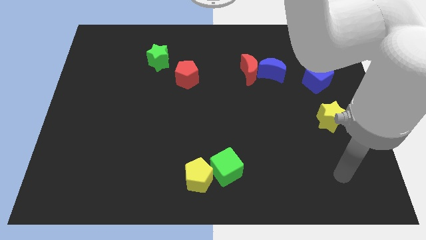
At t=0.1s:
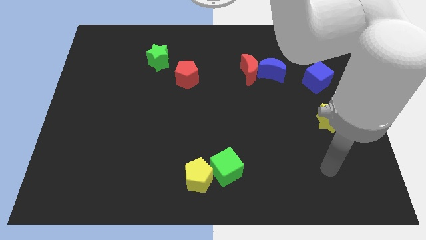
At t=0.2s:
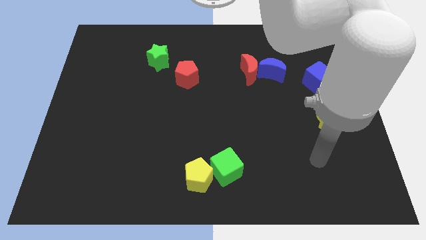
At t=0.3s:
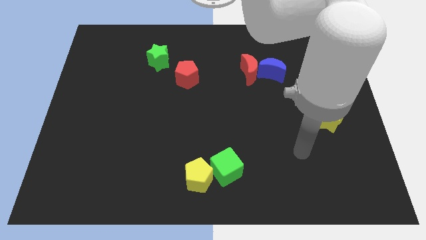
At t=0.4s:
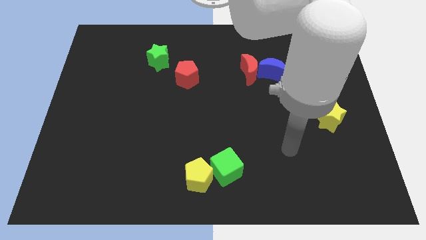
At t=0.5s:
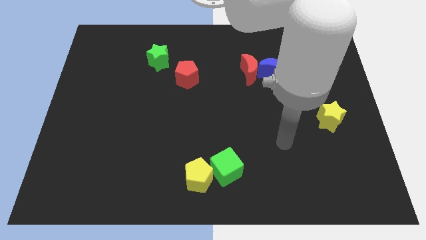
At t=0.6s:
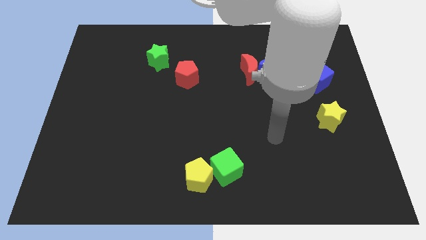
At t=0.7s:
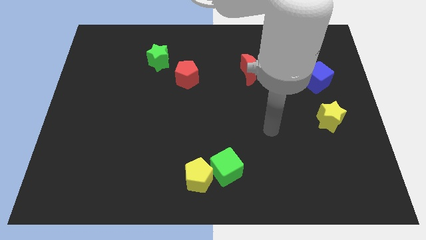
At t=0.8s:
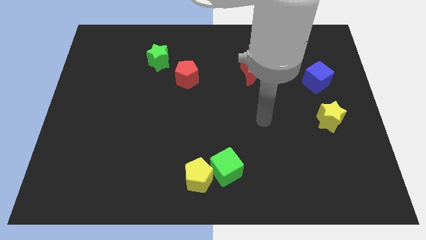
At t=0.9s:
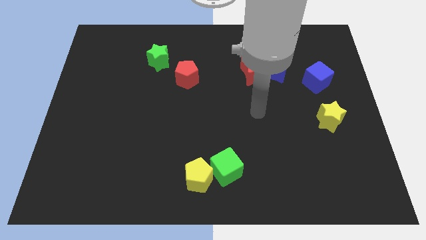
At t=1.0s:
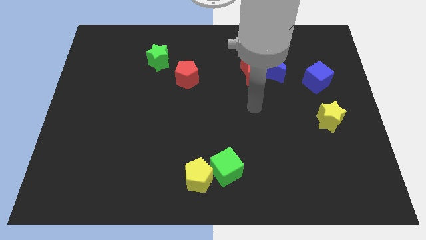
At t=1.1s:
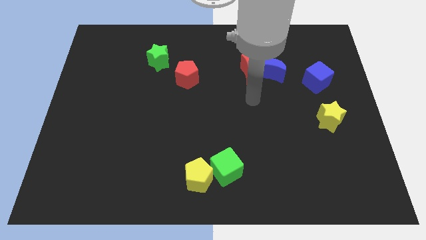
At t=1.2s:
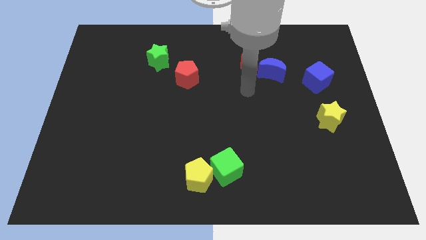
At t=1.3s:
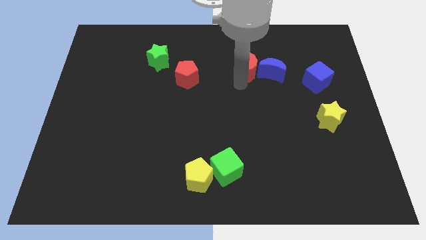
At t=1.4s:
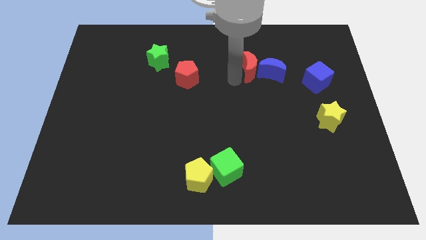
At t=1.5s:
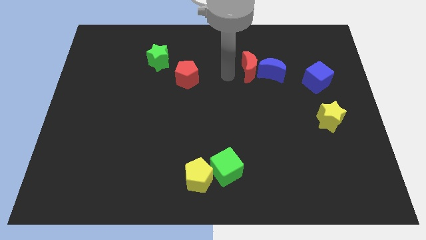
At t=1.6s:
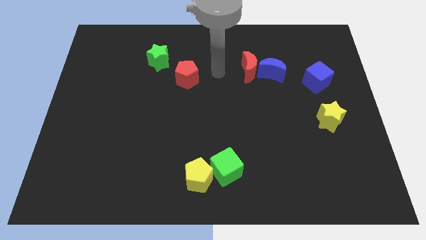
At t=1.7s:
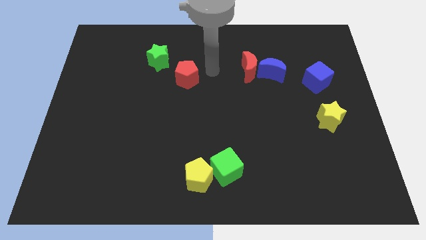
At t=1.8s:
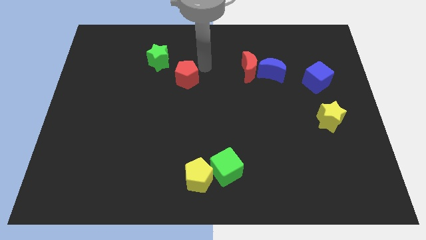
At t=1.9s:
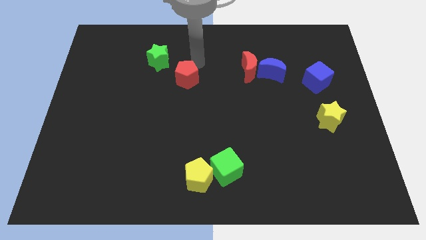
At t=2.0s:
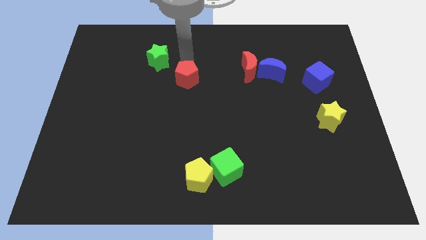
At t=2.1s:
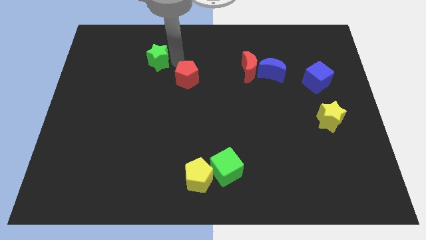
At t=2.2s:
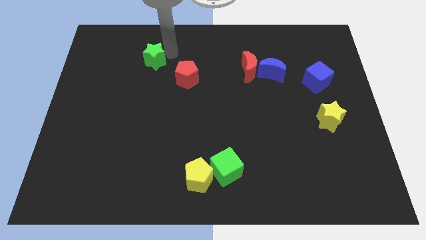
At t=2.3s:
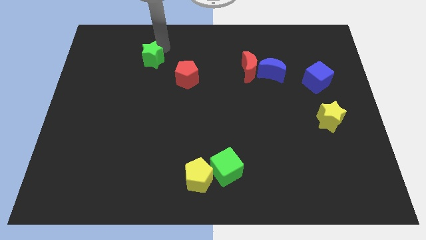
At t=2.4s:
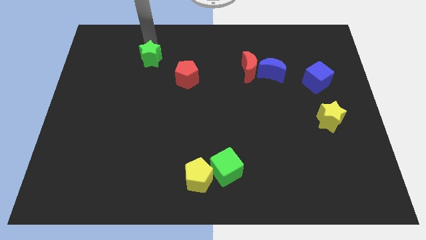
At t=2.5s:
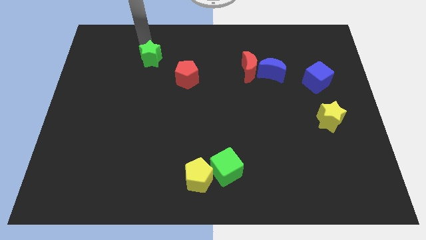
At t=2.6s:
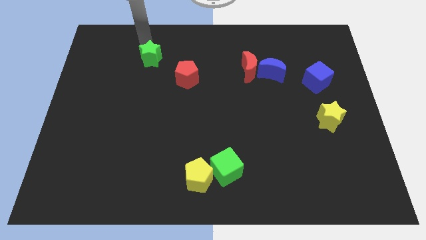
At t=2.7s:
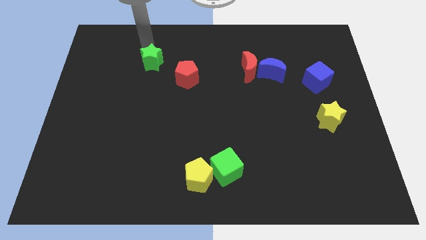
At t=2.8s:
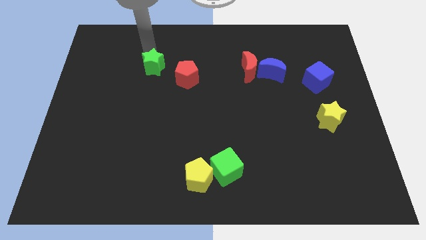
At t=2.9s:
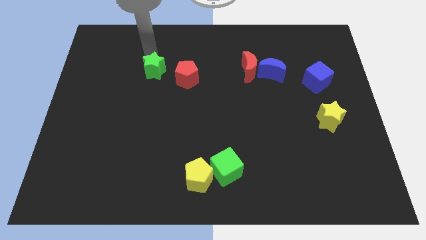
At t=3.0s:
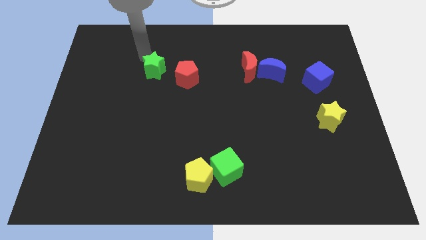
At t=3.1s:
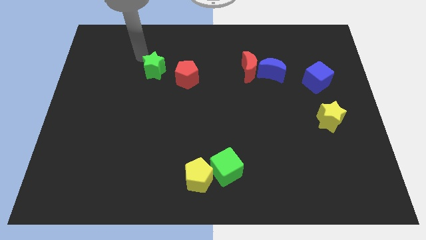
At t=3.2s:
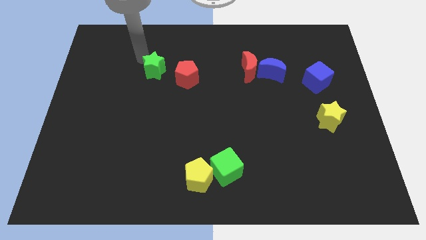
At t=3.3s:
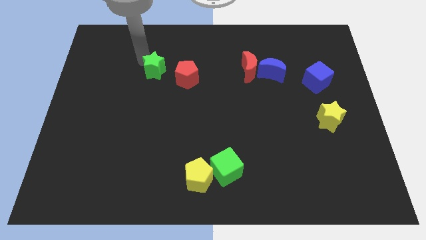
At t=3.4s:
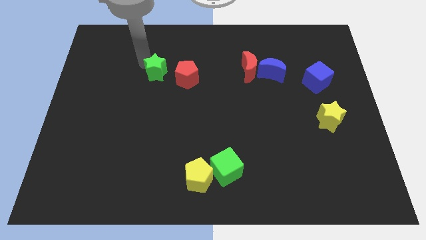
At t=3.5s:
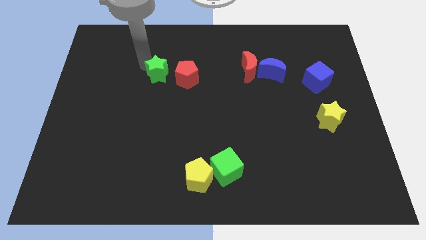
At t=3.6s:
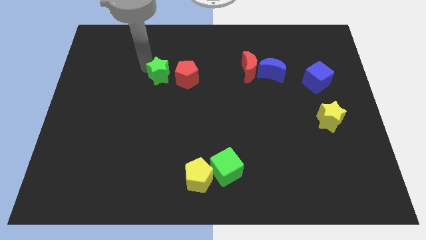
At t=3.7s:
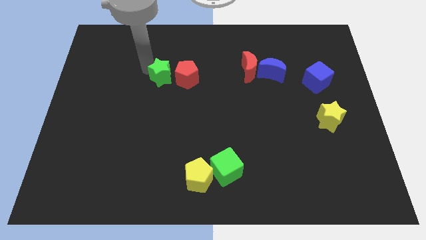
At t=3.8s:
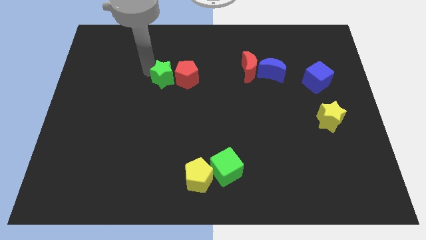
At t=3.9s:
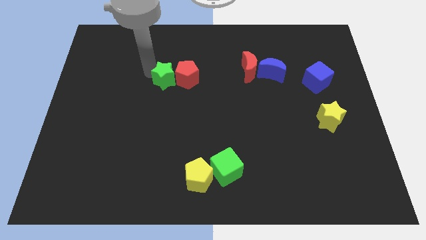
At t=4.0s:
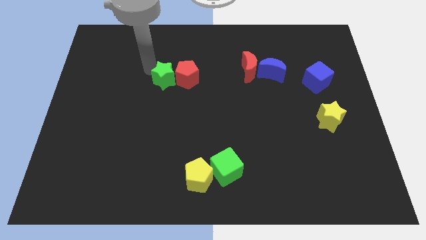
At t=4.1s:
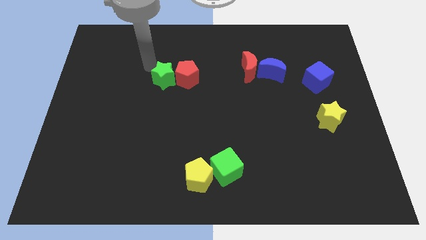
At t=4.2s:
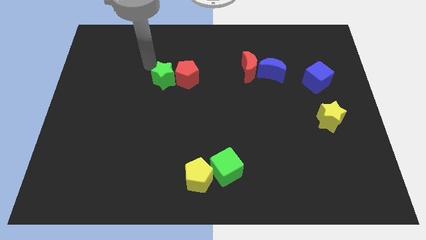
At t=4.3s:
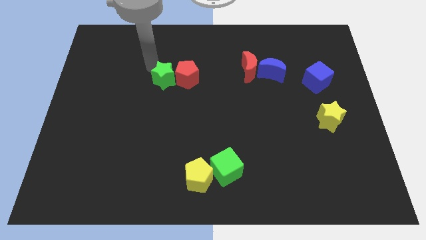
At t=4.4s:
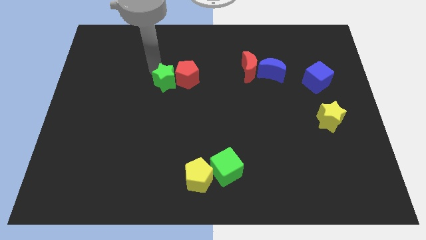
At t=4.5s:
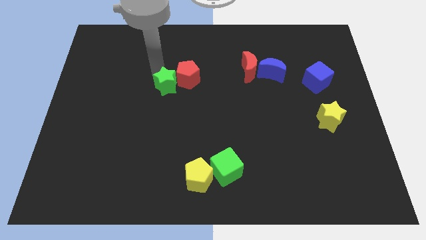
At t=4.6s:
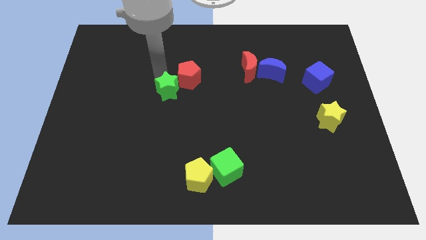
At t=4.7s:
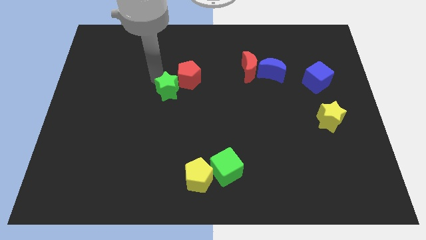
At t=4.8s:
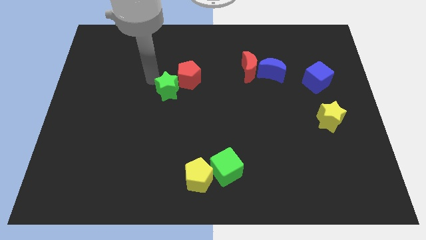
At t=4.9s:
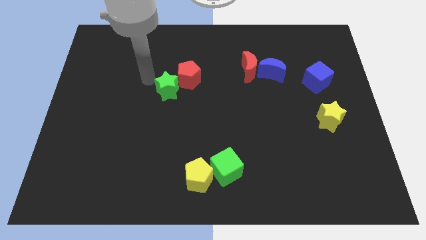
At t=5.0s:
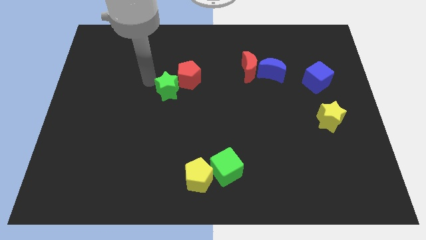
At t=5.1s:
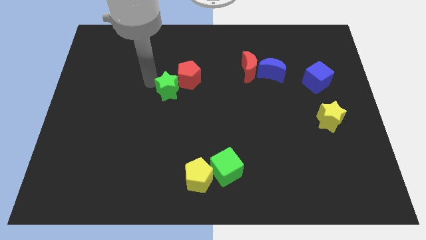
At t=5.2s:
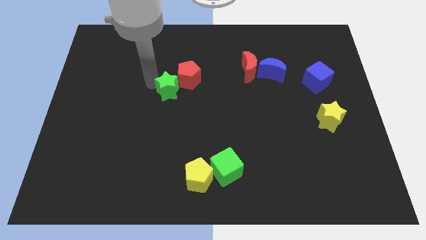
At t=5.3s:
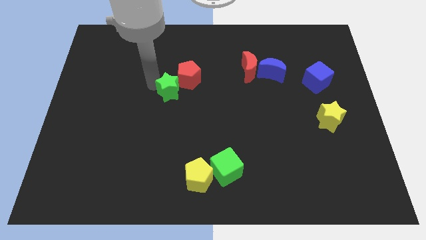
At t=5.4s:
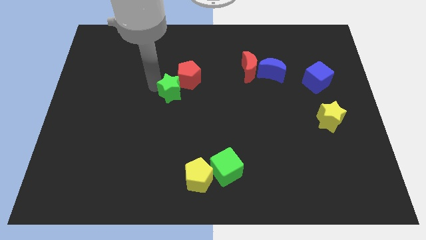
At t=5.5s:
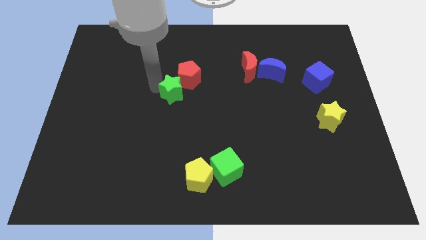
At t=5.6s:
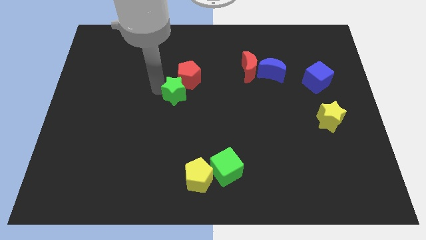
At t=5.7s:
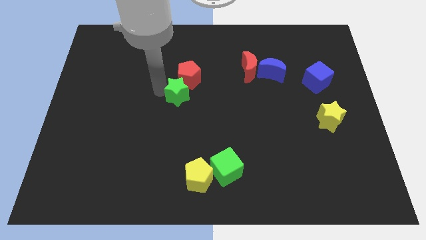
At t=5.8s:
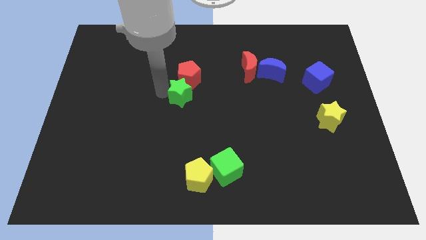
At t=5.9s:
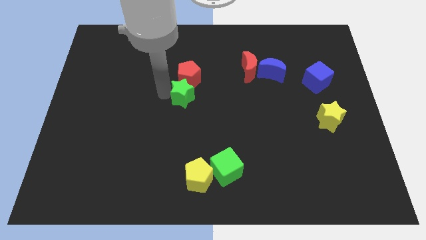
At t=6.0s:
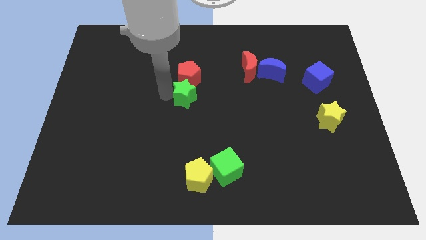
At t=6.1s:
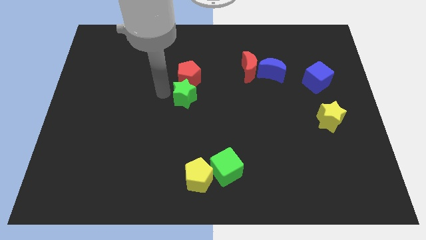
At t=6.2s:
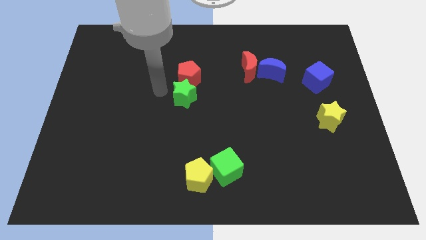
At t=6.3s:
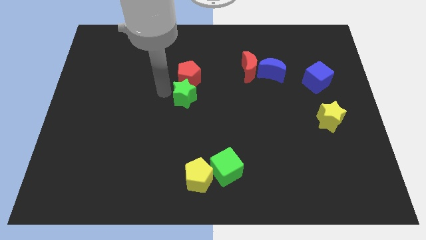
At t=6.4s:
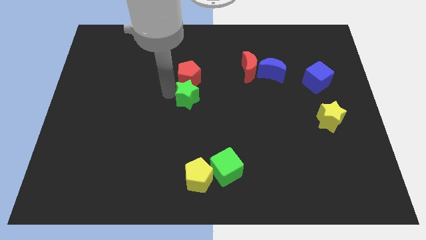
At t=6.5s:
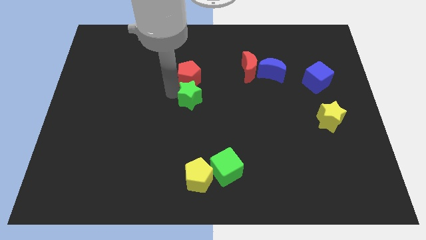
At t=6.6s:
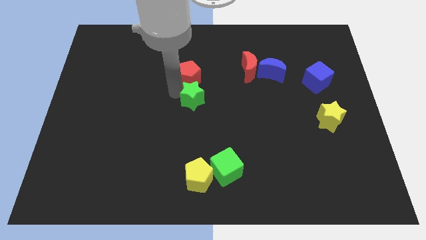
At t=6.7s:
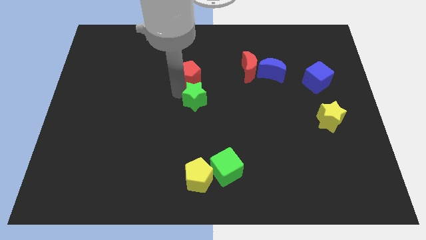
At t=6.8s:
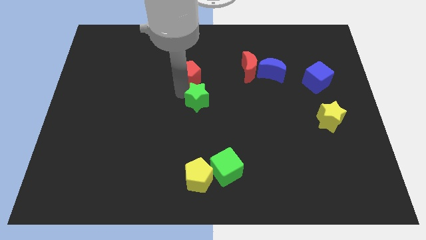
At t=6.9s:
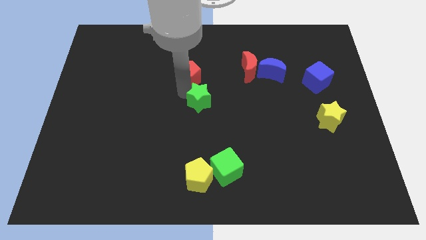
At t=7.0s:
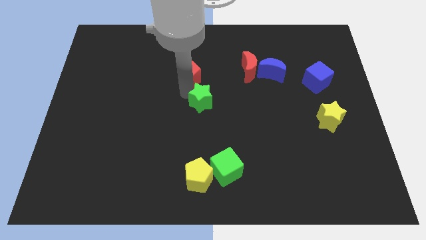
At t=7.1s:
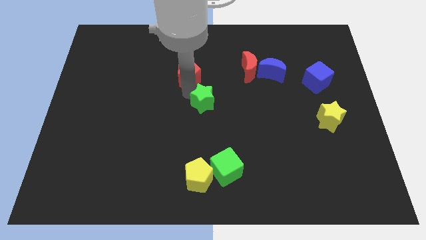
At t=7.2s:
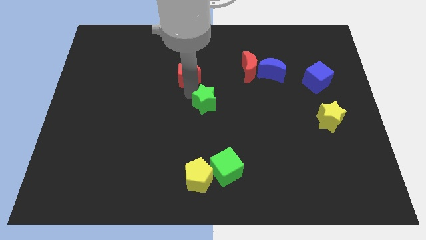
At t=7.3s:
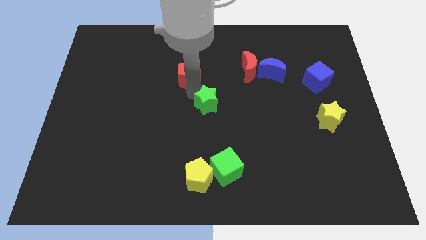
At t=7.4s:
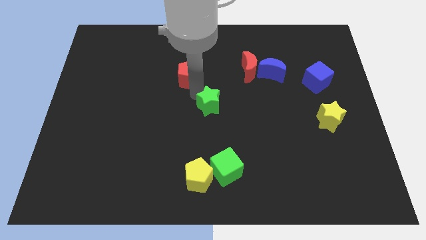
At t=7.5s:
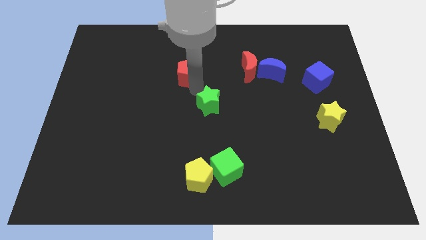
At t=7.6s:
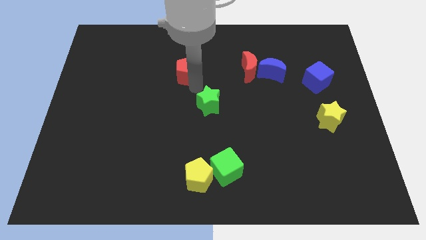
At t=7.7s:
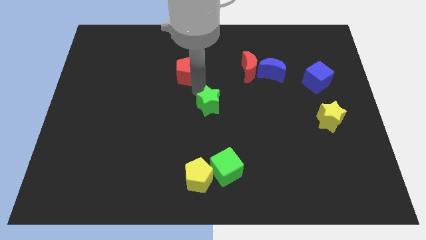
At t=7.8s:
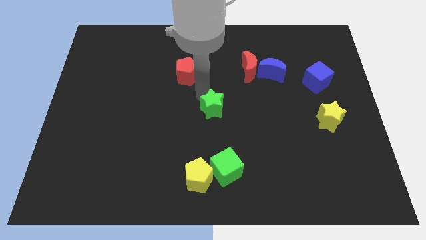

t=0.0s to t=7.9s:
push the green star down and to the right diagonally

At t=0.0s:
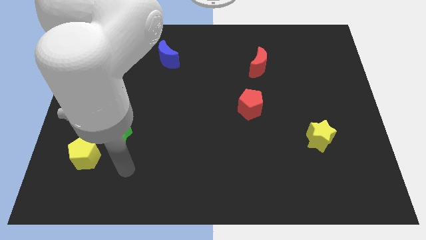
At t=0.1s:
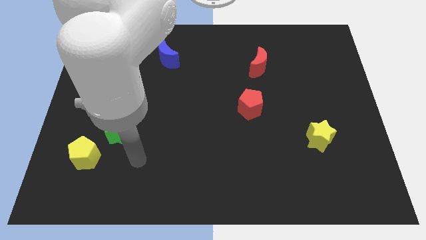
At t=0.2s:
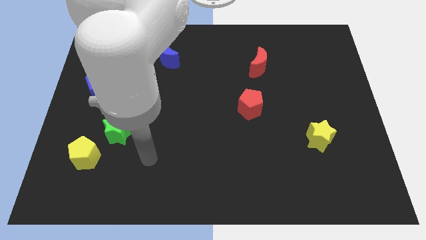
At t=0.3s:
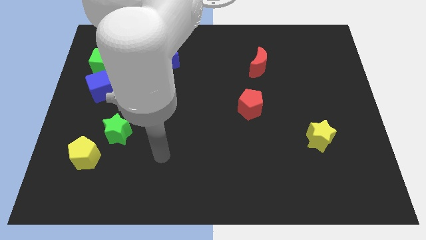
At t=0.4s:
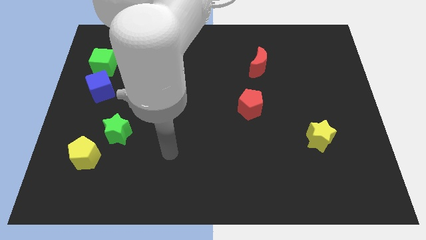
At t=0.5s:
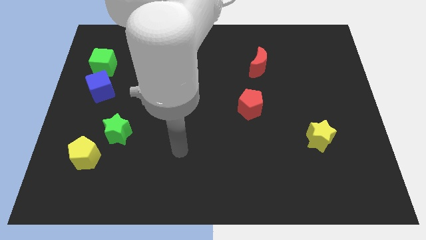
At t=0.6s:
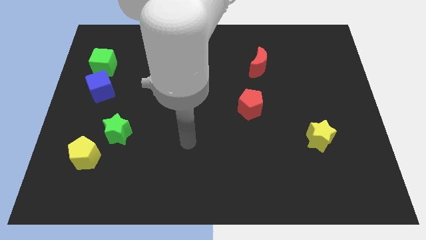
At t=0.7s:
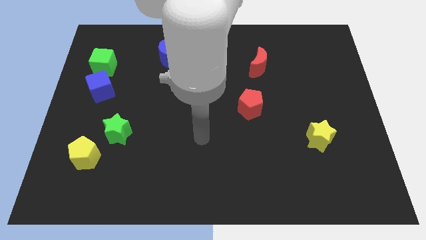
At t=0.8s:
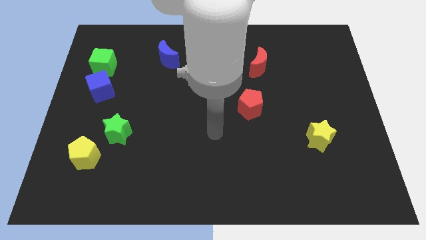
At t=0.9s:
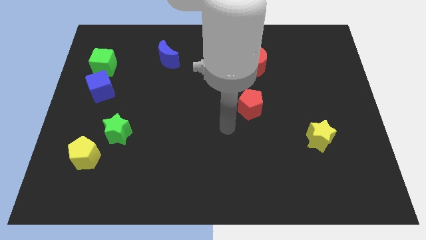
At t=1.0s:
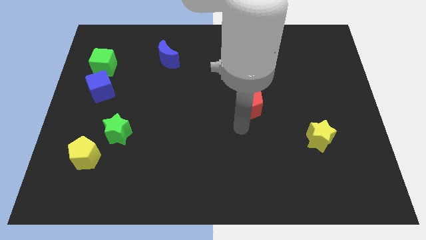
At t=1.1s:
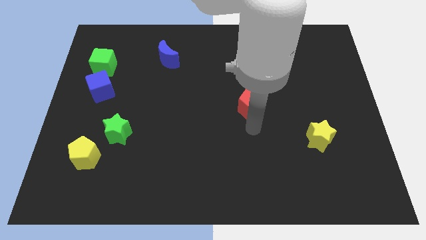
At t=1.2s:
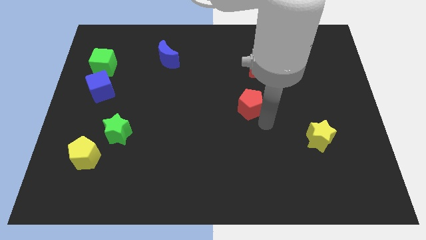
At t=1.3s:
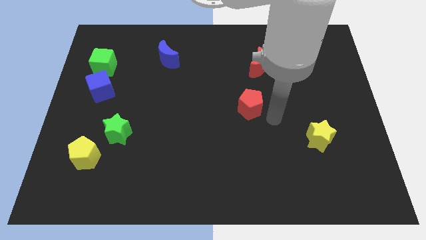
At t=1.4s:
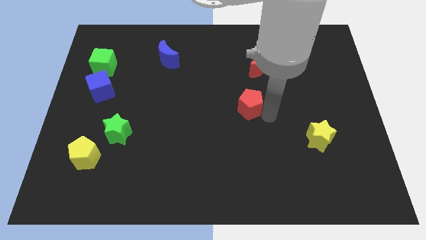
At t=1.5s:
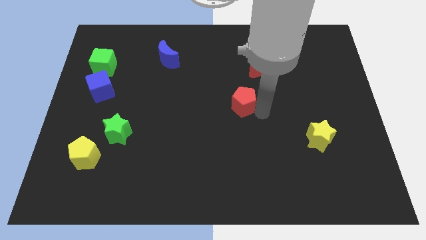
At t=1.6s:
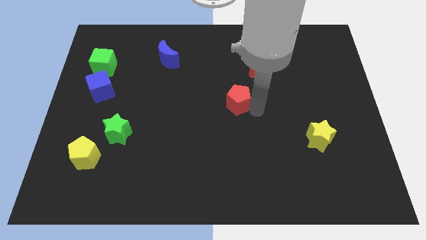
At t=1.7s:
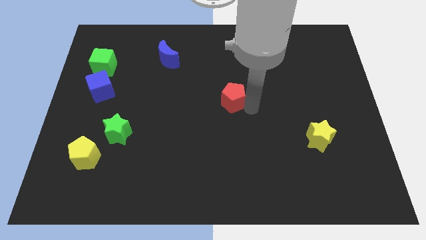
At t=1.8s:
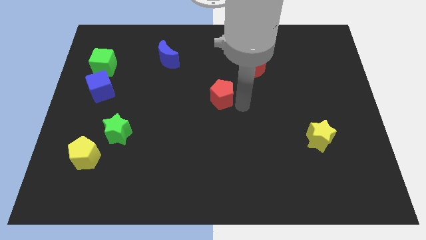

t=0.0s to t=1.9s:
slightly slide the red pentagon up and then left
